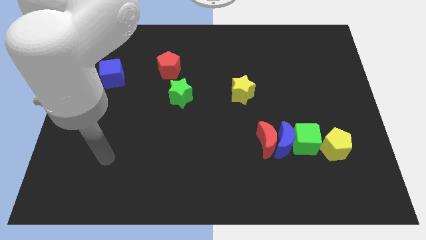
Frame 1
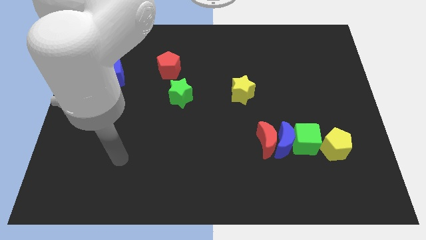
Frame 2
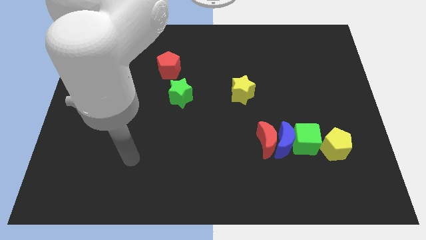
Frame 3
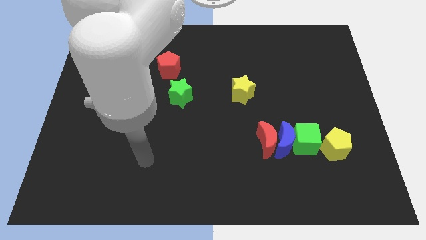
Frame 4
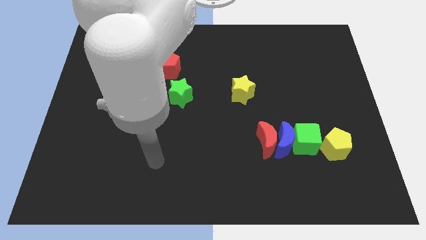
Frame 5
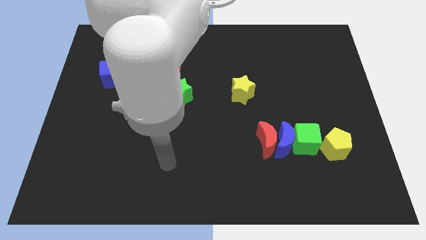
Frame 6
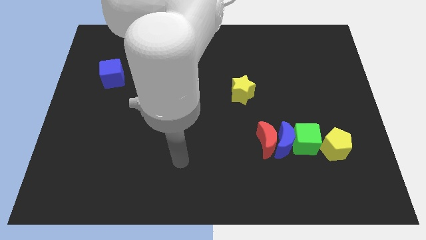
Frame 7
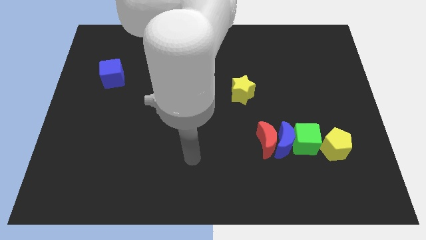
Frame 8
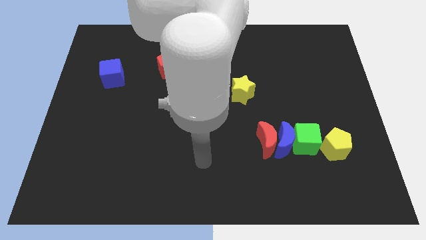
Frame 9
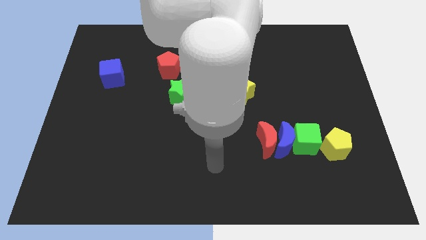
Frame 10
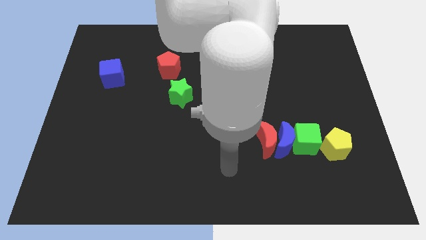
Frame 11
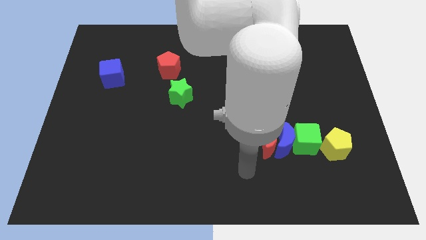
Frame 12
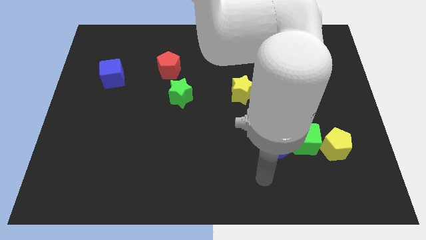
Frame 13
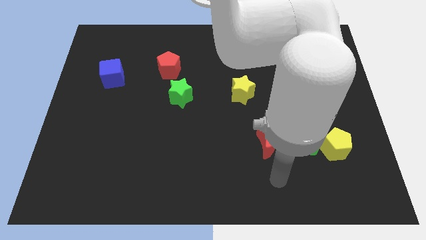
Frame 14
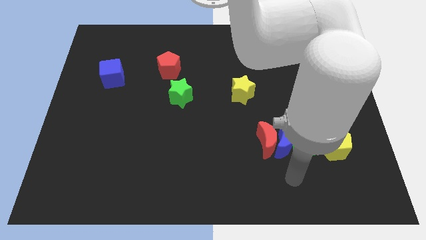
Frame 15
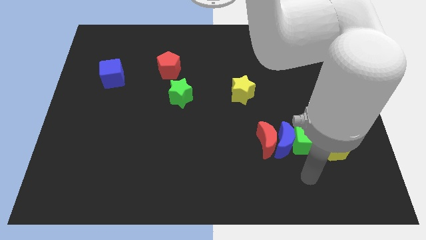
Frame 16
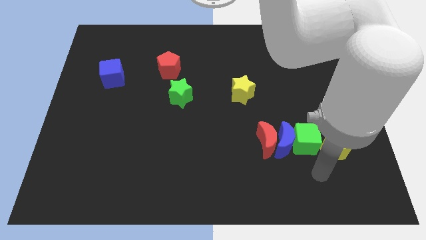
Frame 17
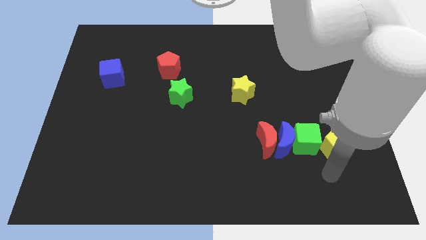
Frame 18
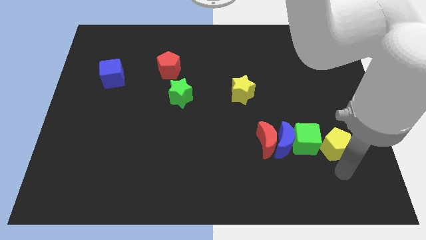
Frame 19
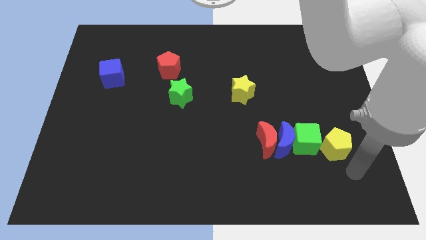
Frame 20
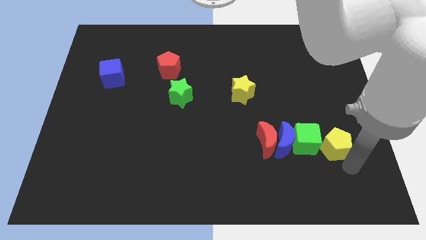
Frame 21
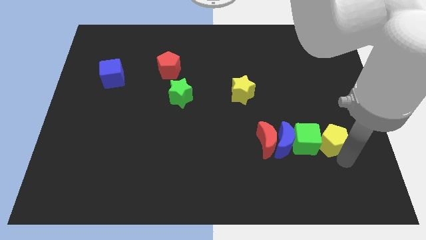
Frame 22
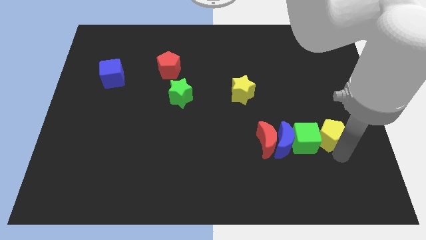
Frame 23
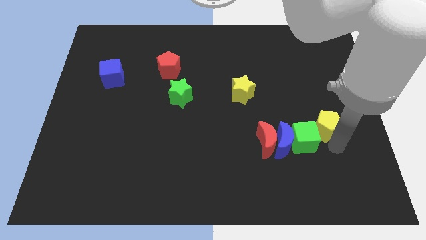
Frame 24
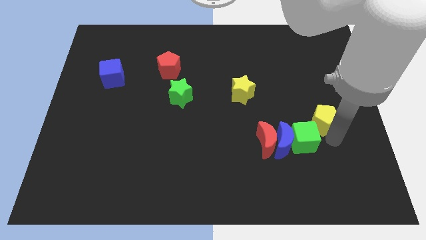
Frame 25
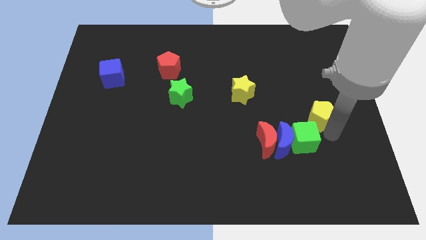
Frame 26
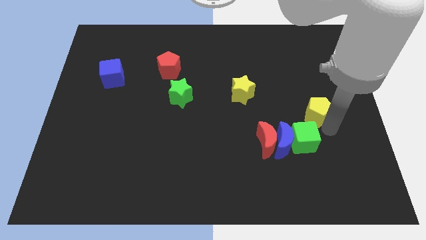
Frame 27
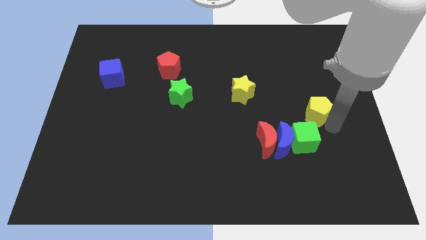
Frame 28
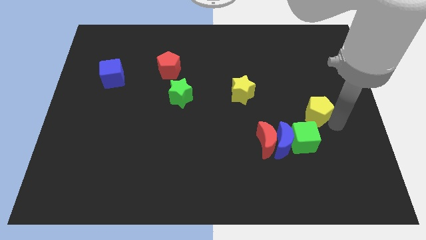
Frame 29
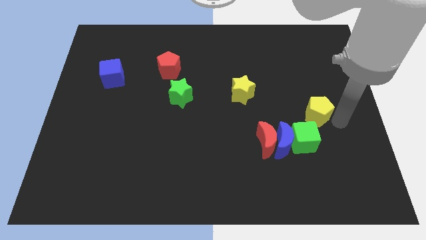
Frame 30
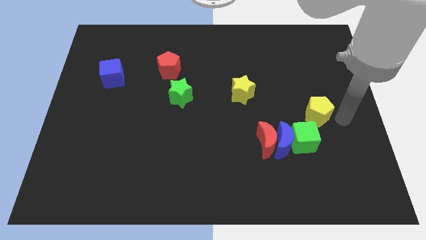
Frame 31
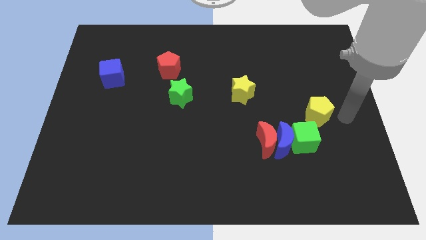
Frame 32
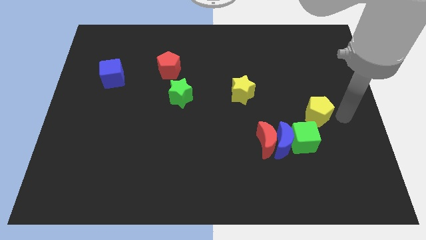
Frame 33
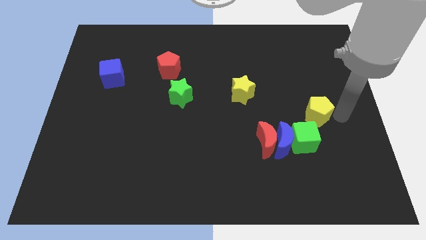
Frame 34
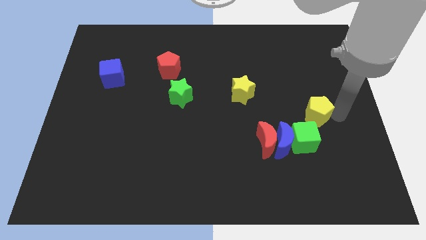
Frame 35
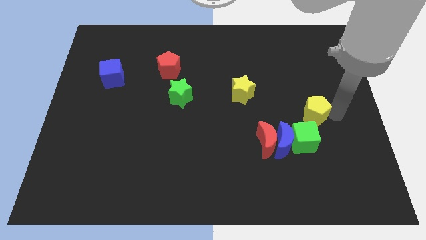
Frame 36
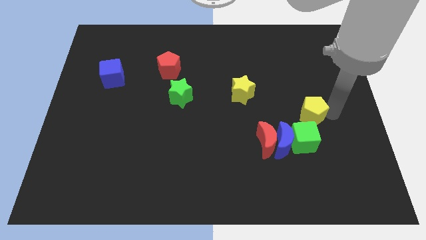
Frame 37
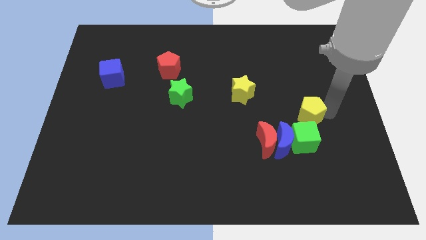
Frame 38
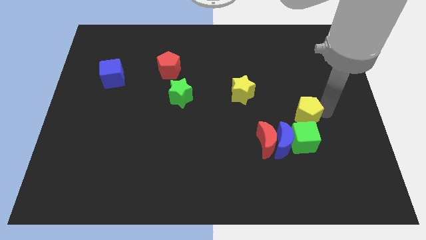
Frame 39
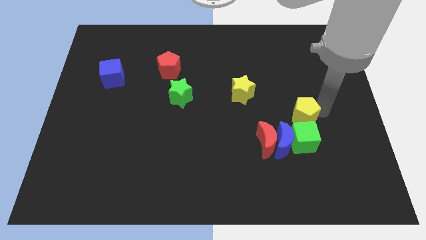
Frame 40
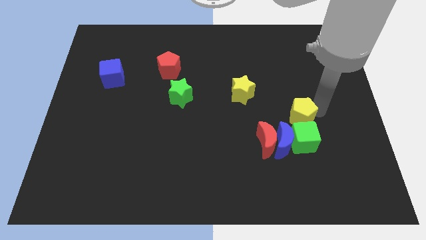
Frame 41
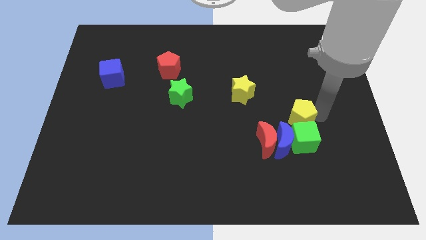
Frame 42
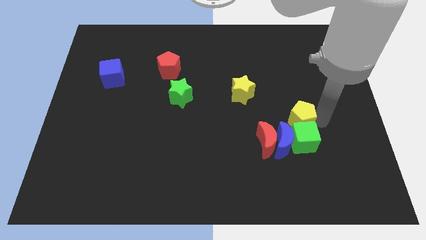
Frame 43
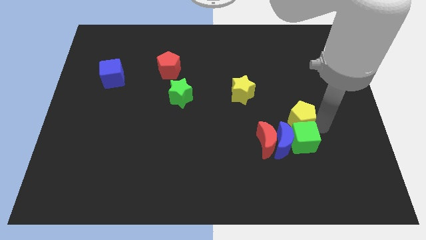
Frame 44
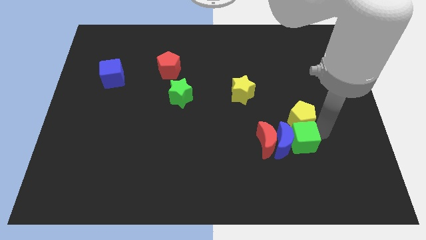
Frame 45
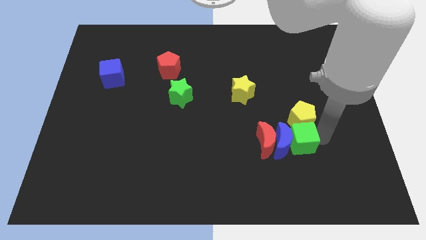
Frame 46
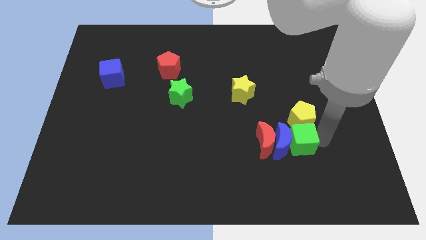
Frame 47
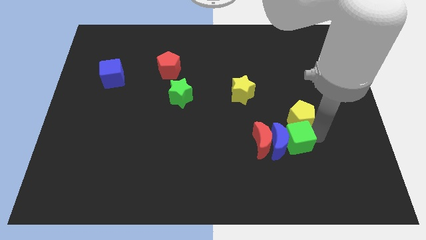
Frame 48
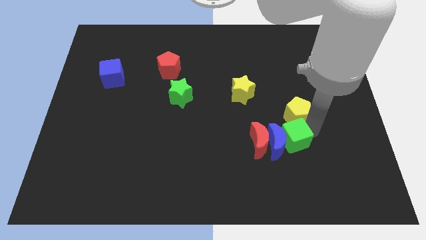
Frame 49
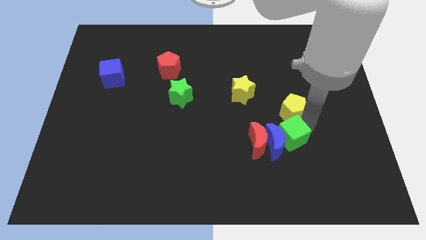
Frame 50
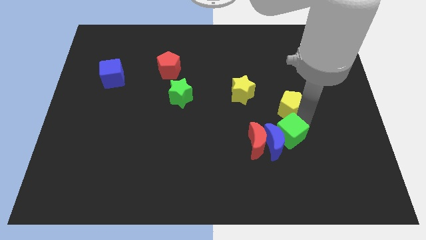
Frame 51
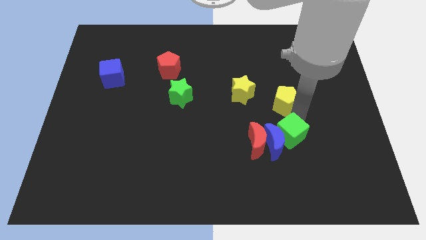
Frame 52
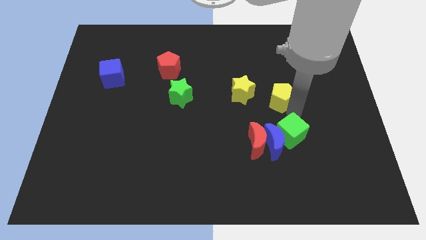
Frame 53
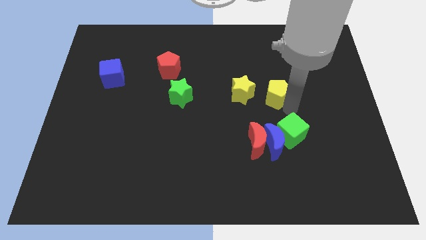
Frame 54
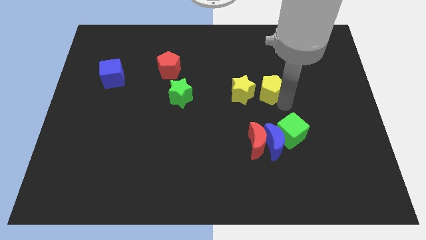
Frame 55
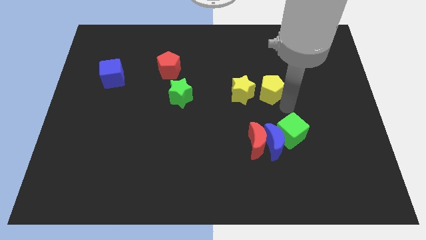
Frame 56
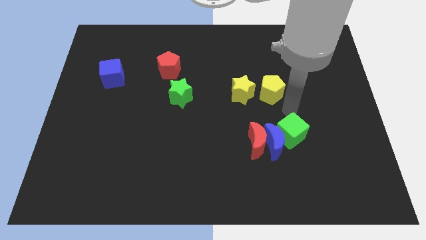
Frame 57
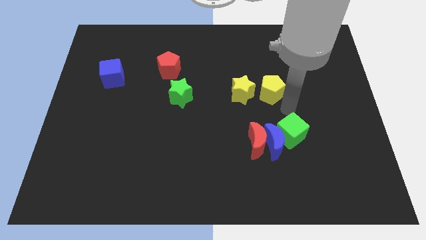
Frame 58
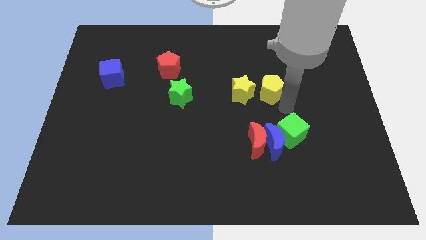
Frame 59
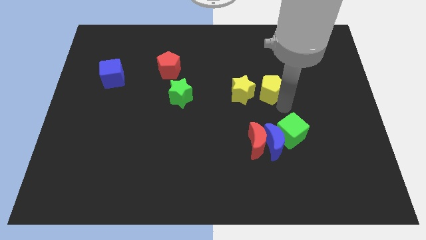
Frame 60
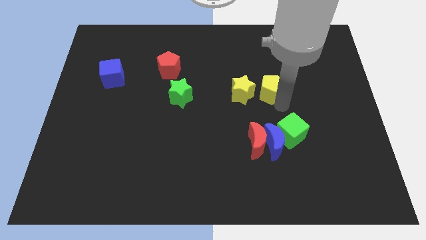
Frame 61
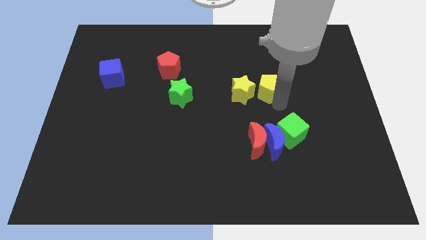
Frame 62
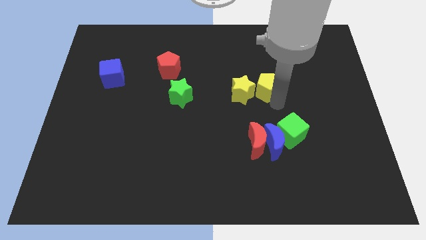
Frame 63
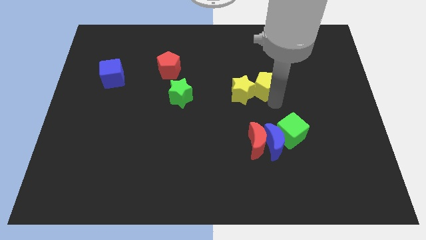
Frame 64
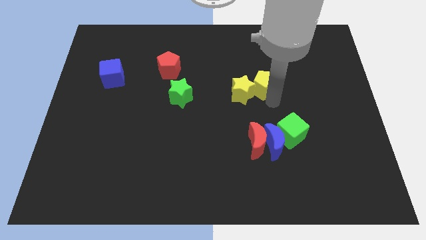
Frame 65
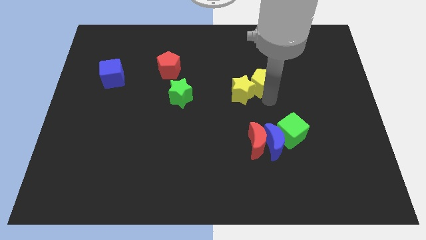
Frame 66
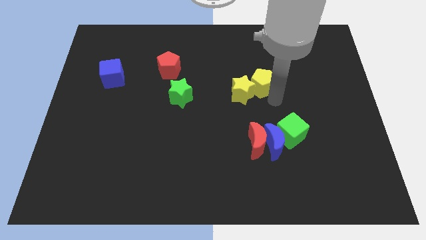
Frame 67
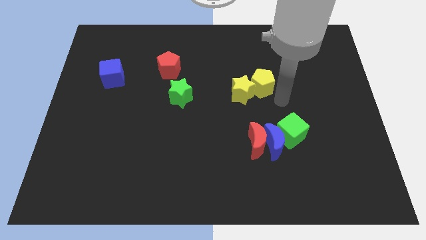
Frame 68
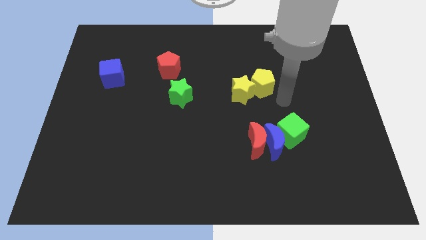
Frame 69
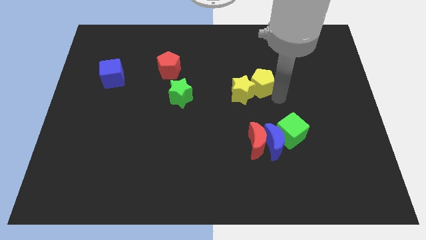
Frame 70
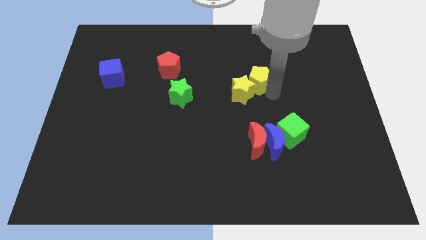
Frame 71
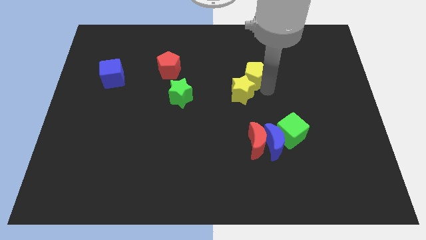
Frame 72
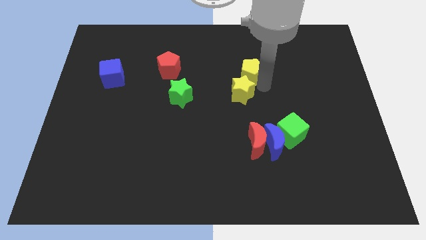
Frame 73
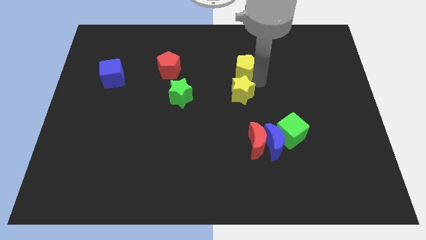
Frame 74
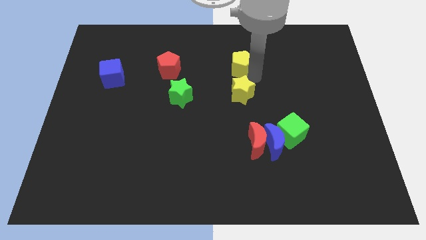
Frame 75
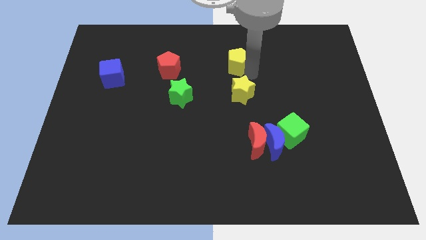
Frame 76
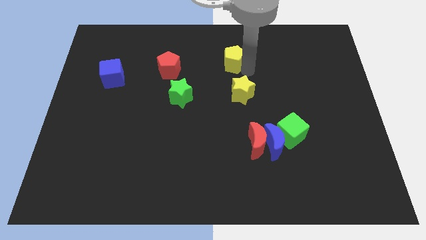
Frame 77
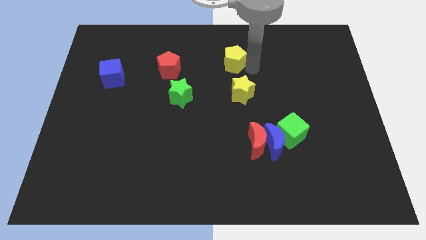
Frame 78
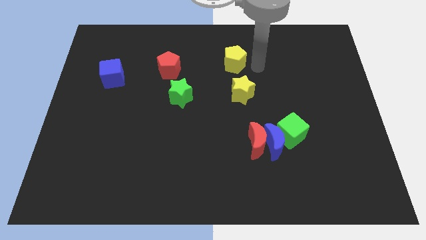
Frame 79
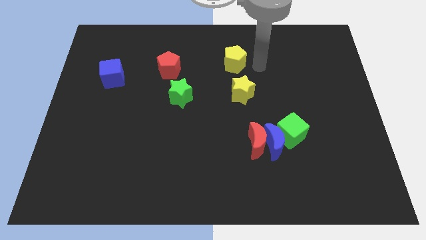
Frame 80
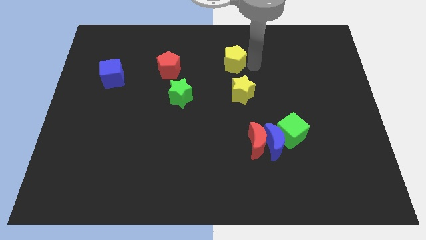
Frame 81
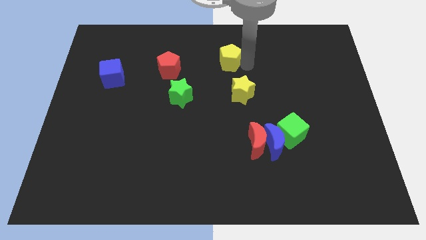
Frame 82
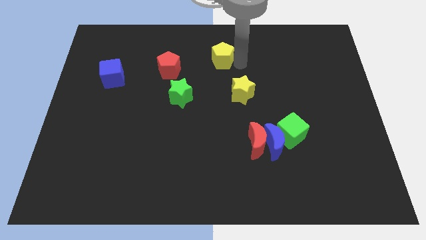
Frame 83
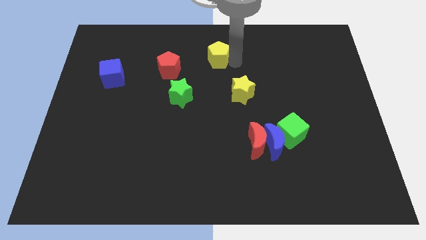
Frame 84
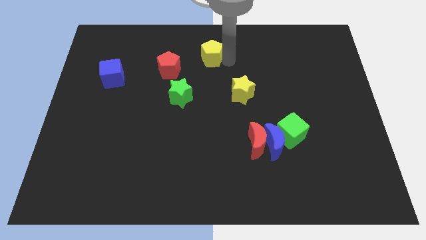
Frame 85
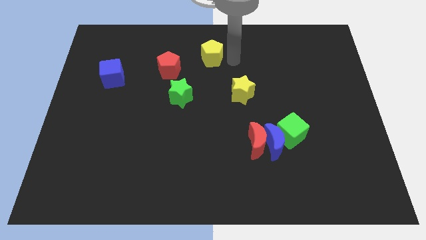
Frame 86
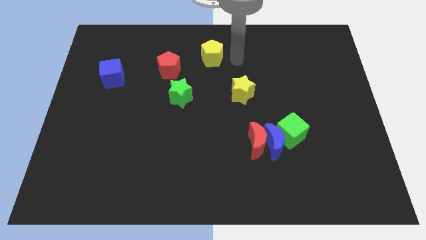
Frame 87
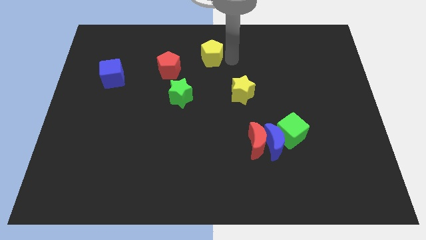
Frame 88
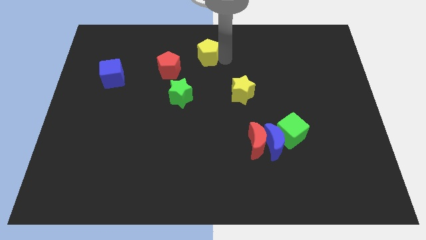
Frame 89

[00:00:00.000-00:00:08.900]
move the yellow pentagon diagonally up and to the right of the red pentagon
